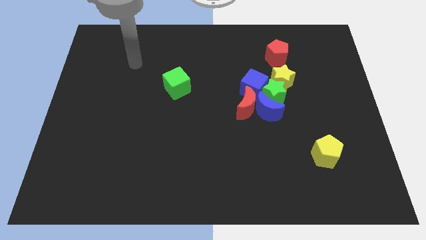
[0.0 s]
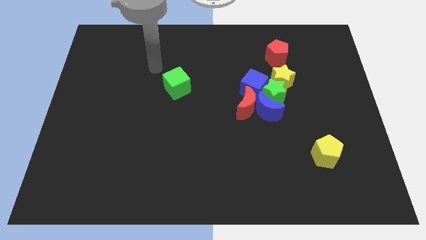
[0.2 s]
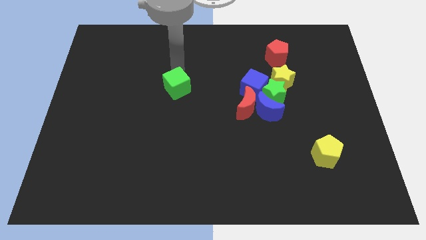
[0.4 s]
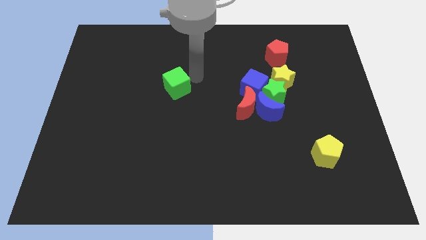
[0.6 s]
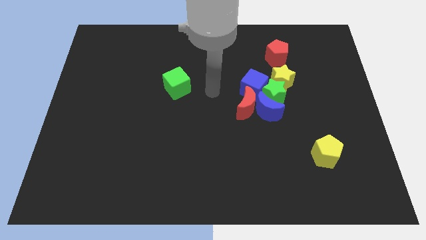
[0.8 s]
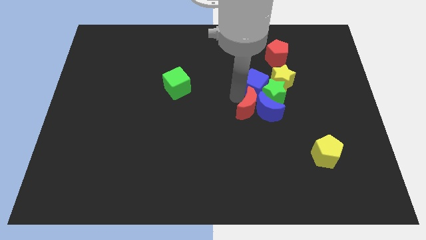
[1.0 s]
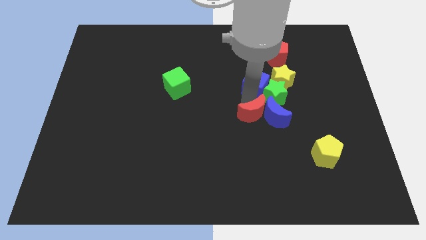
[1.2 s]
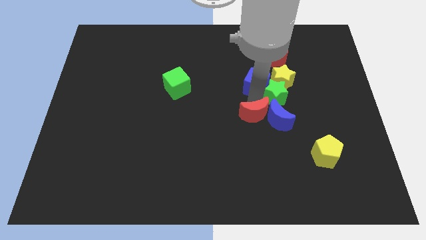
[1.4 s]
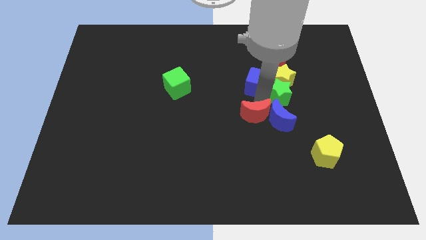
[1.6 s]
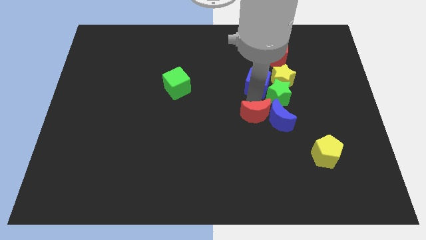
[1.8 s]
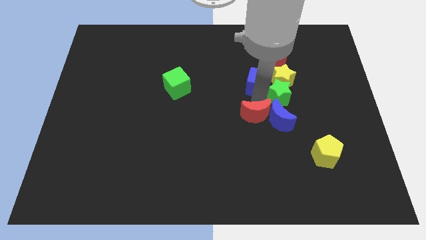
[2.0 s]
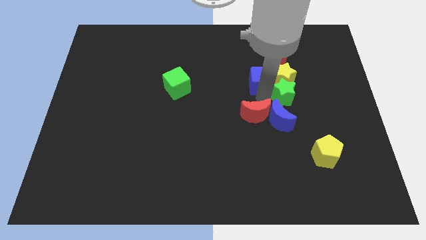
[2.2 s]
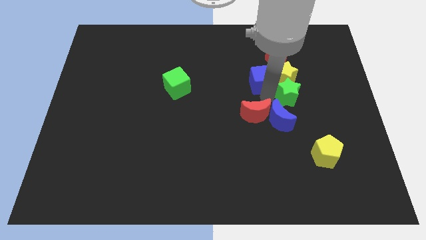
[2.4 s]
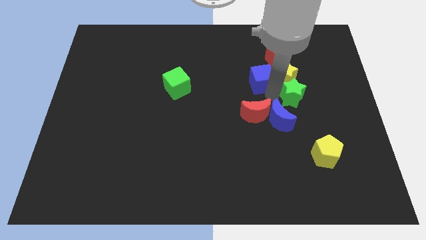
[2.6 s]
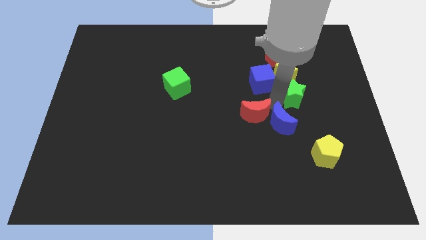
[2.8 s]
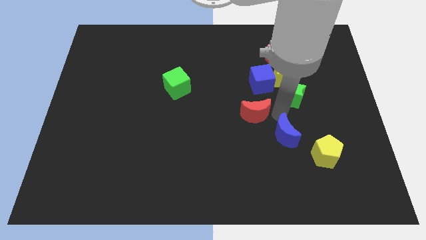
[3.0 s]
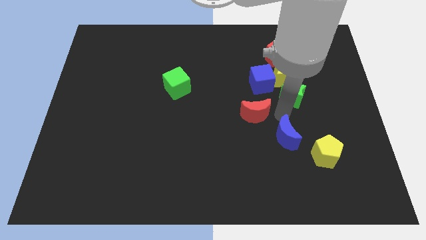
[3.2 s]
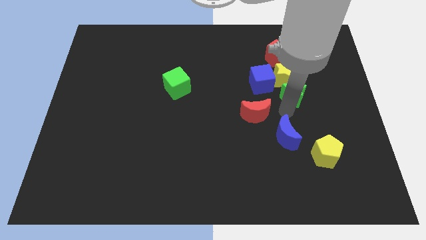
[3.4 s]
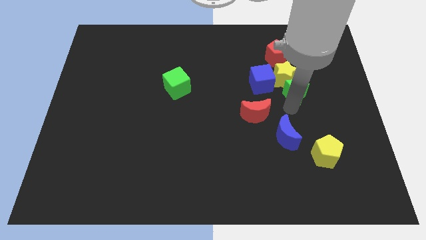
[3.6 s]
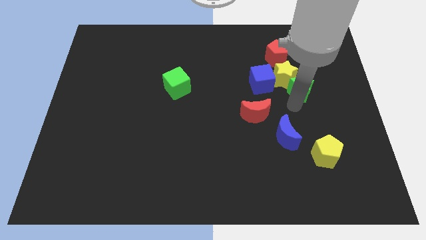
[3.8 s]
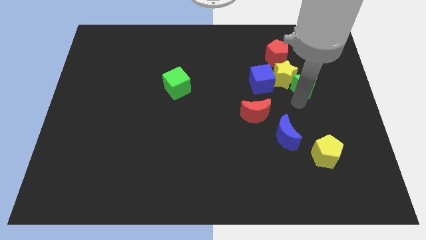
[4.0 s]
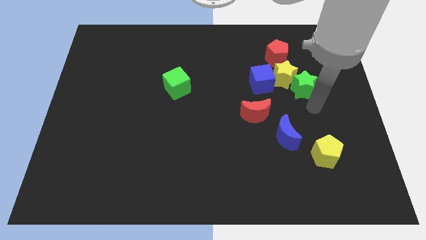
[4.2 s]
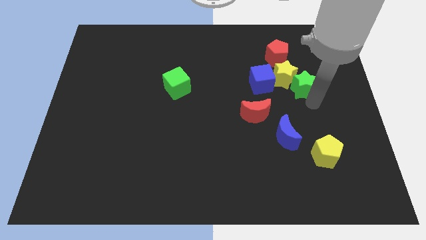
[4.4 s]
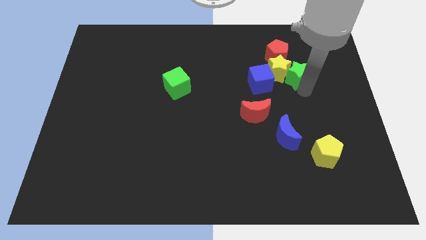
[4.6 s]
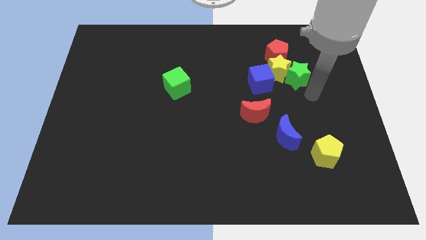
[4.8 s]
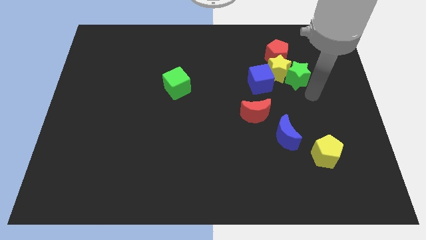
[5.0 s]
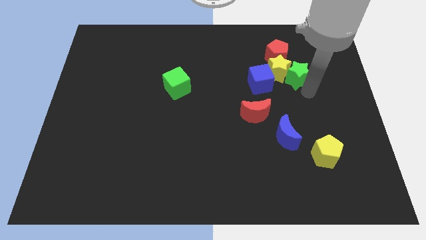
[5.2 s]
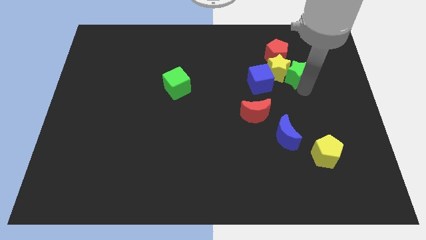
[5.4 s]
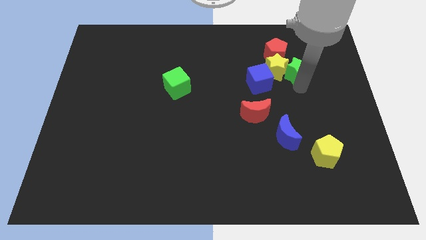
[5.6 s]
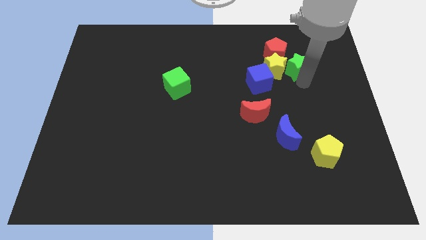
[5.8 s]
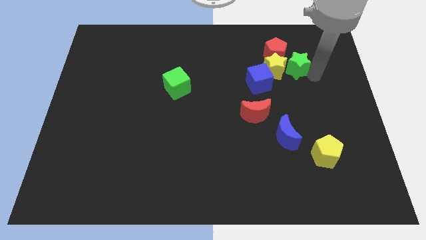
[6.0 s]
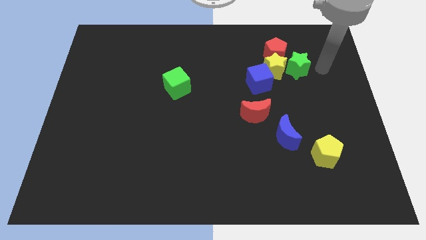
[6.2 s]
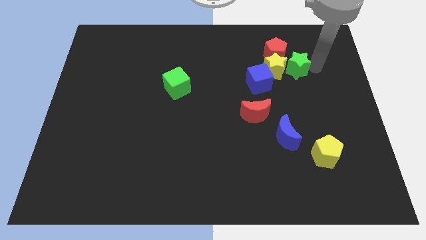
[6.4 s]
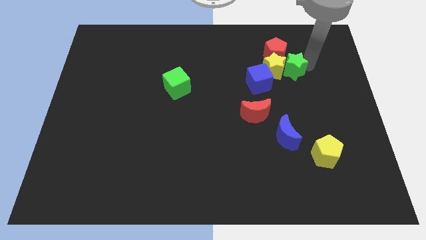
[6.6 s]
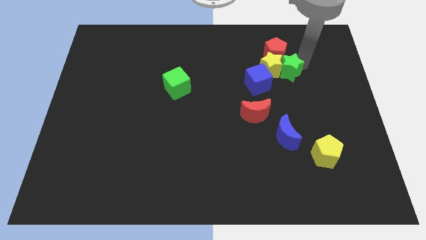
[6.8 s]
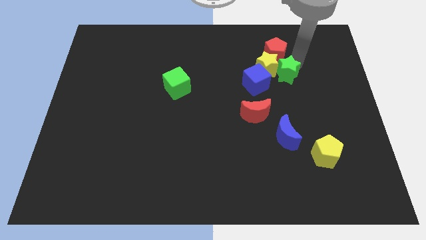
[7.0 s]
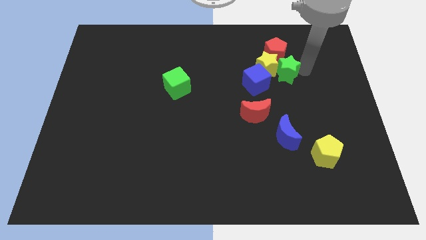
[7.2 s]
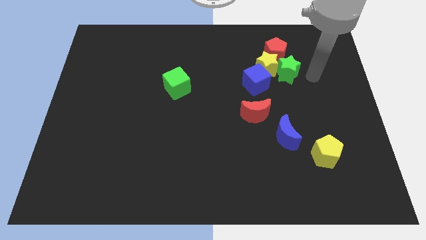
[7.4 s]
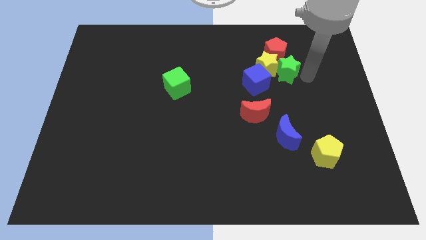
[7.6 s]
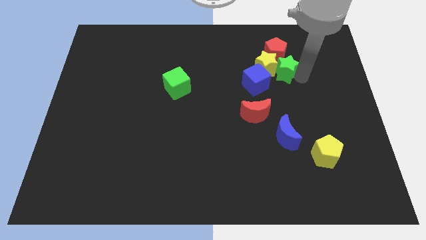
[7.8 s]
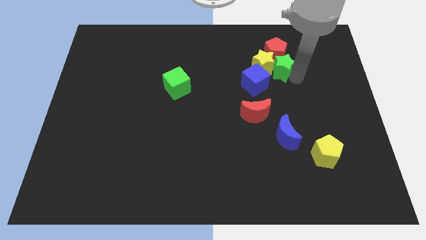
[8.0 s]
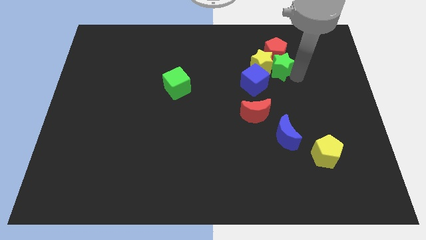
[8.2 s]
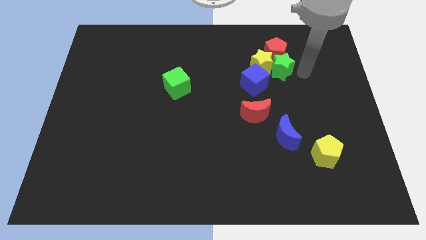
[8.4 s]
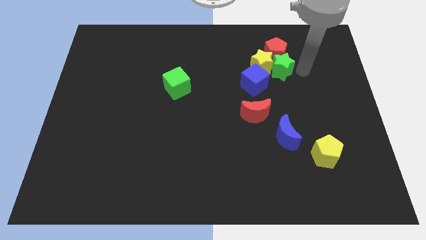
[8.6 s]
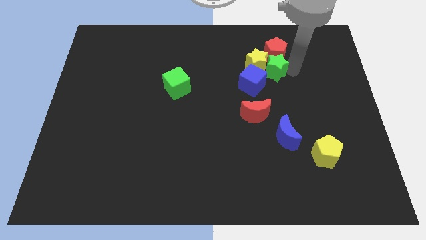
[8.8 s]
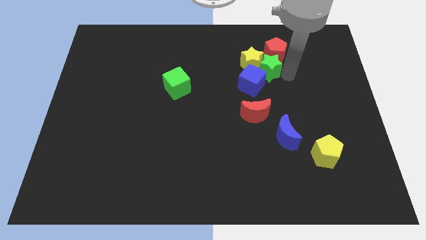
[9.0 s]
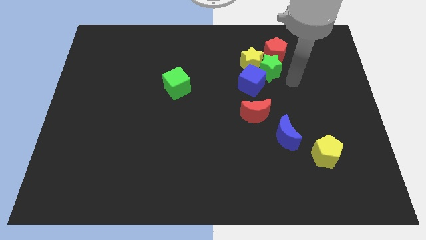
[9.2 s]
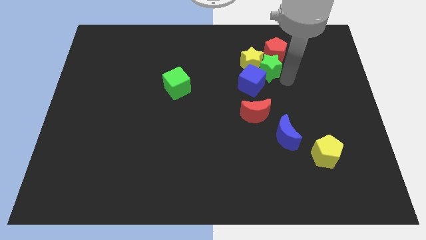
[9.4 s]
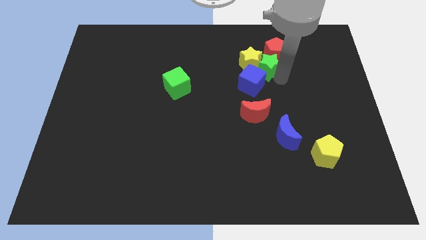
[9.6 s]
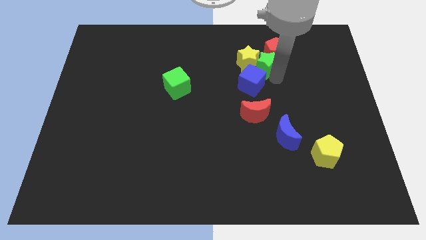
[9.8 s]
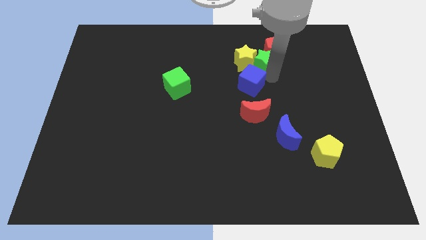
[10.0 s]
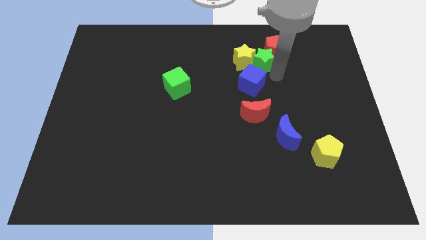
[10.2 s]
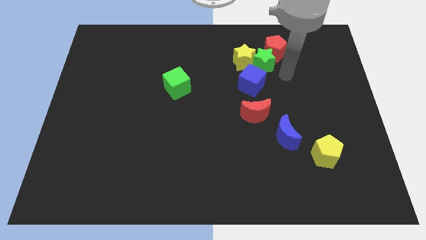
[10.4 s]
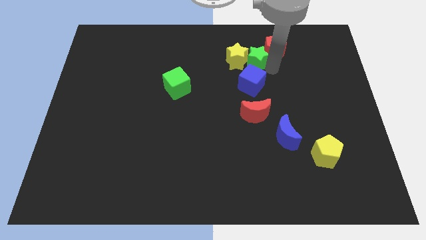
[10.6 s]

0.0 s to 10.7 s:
put the green star to the left of the red pentagon

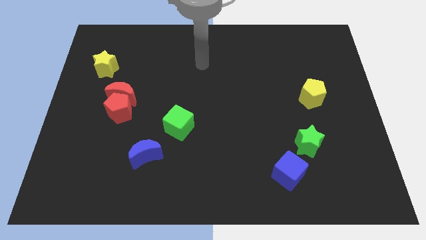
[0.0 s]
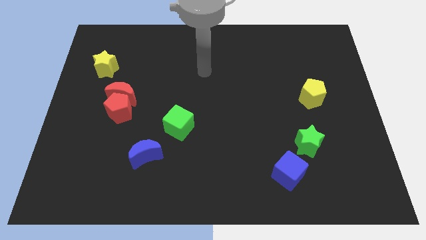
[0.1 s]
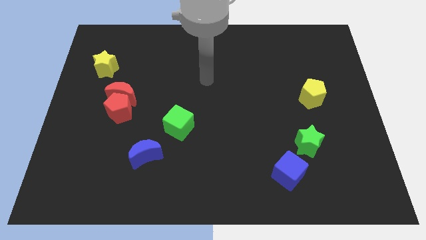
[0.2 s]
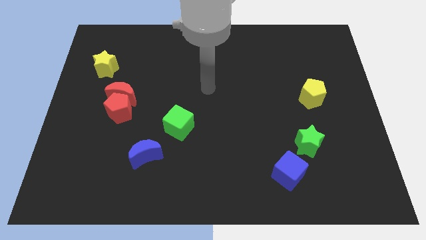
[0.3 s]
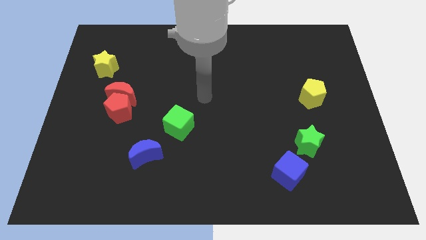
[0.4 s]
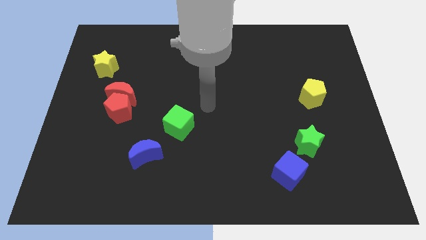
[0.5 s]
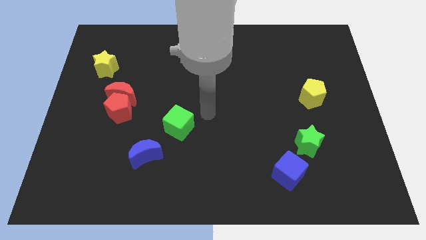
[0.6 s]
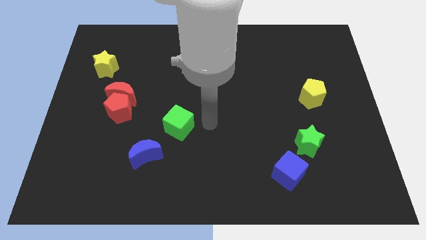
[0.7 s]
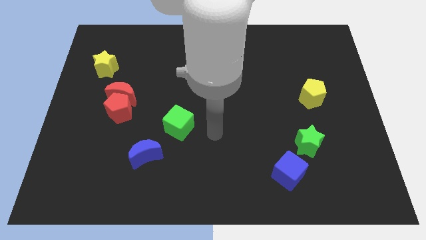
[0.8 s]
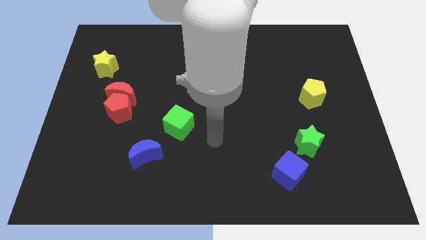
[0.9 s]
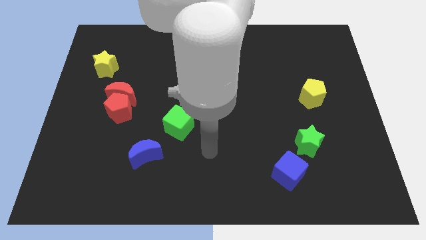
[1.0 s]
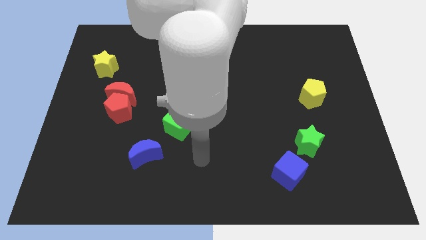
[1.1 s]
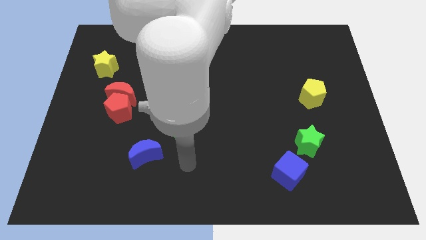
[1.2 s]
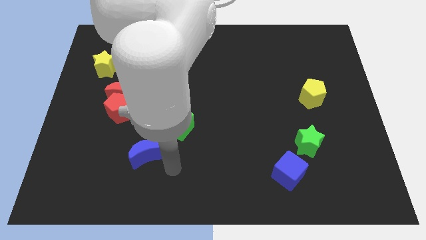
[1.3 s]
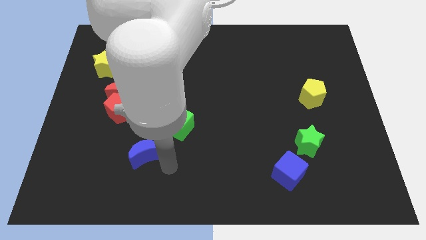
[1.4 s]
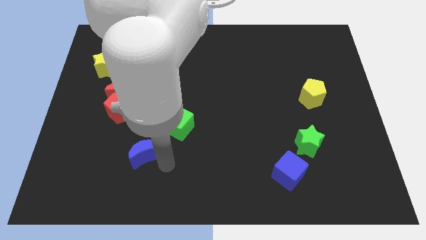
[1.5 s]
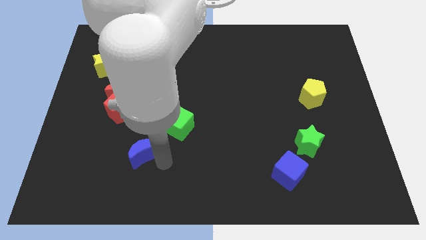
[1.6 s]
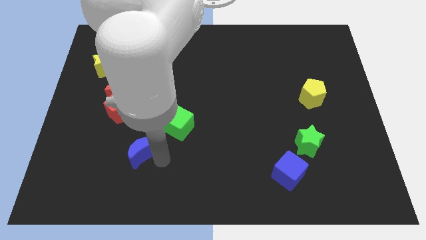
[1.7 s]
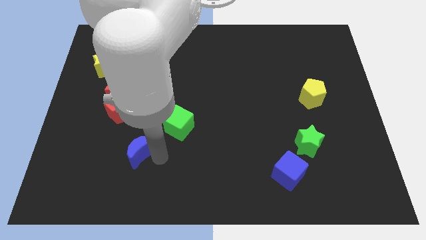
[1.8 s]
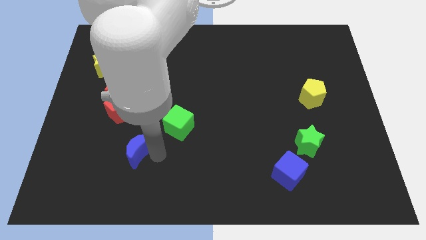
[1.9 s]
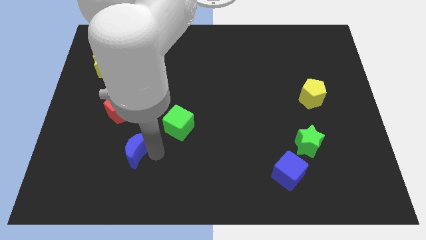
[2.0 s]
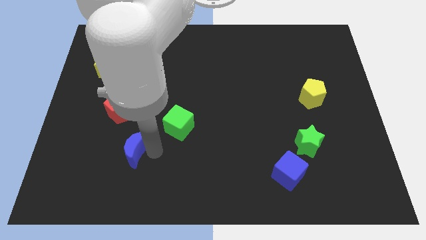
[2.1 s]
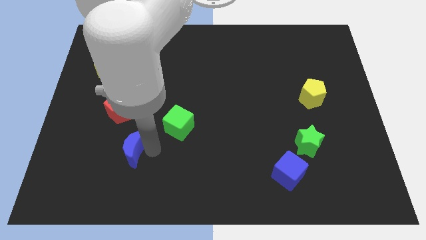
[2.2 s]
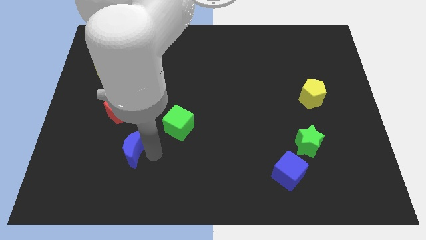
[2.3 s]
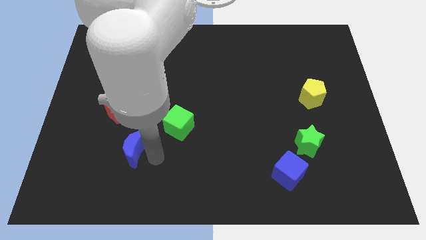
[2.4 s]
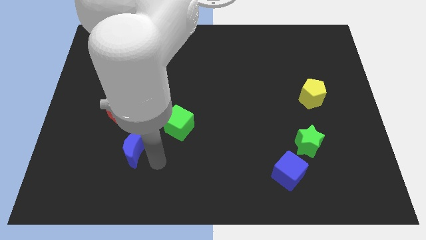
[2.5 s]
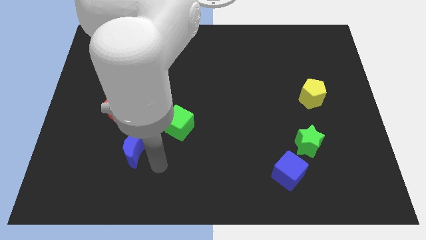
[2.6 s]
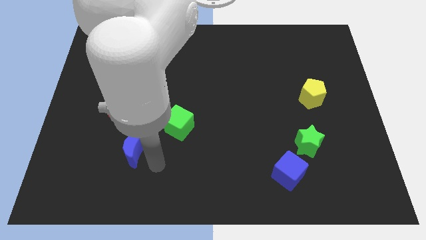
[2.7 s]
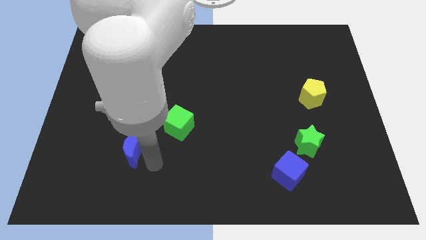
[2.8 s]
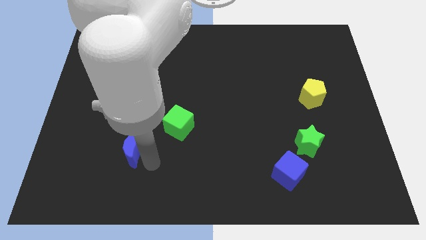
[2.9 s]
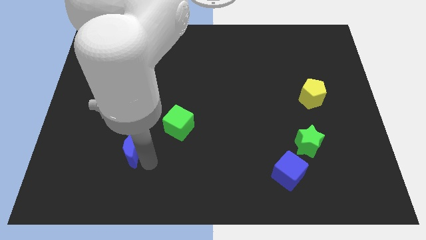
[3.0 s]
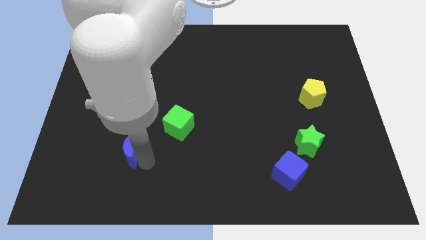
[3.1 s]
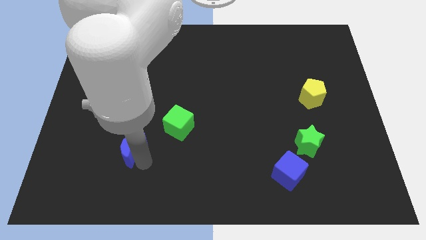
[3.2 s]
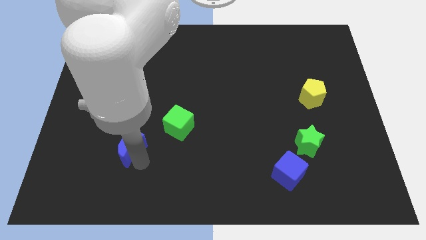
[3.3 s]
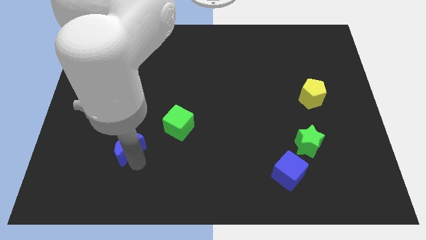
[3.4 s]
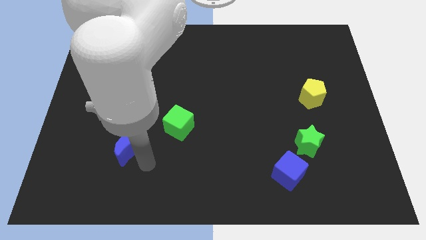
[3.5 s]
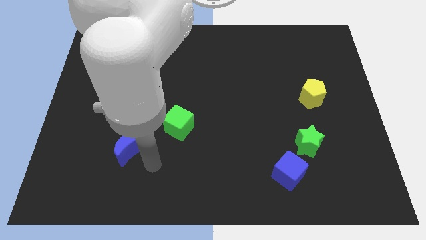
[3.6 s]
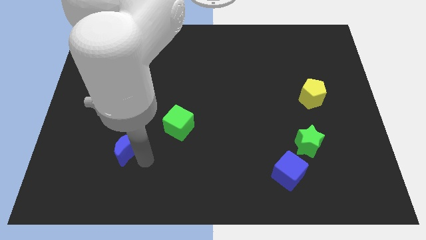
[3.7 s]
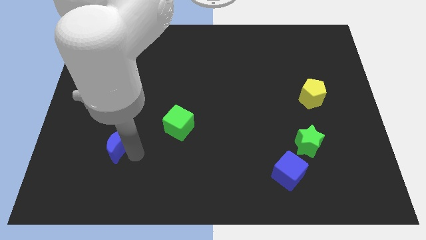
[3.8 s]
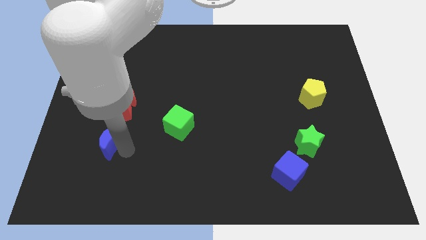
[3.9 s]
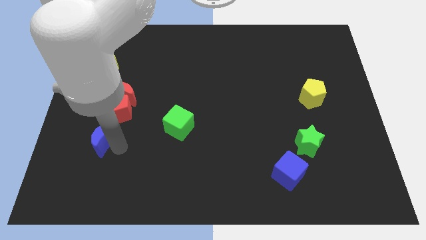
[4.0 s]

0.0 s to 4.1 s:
push the blue moon to the bottom left side of the red pentagon
